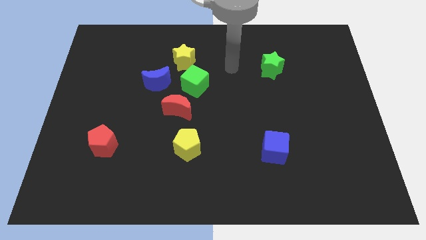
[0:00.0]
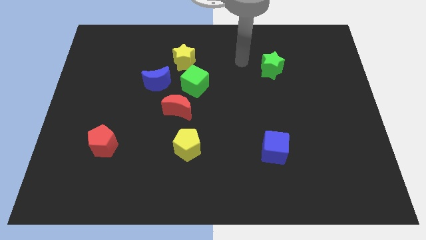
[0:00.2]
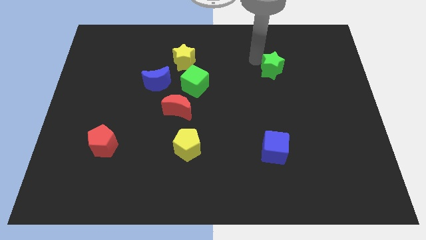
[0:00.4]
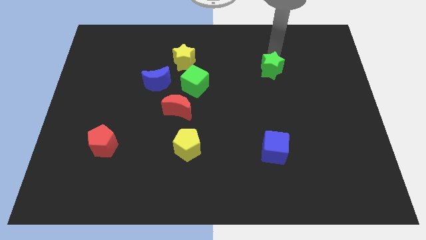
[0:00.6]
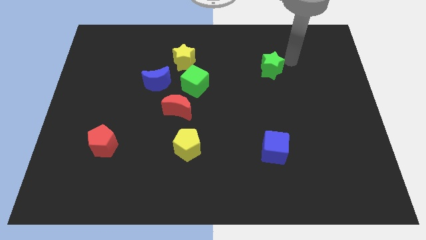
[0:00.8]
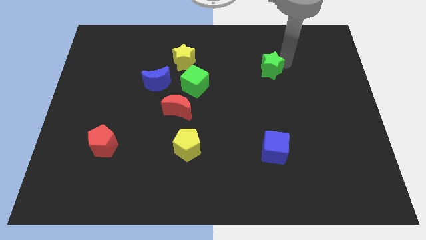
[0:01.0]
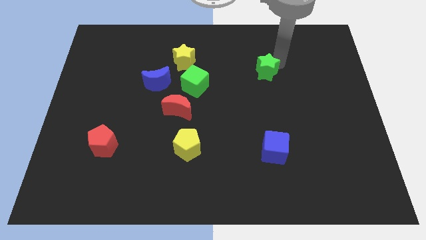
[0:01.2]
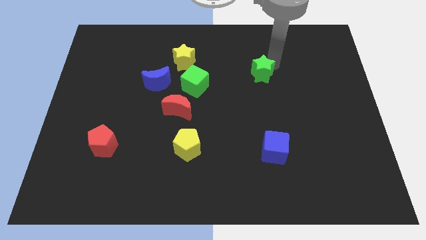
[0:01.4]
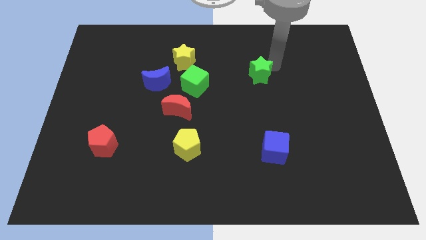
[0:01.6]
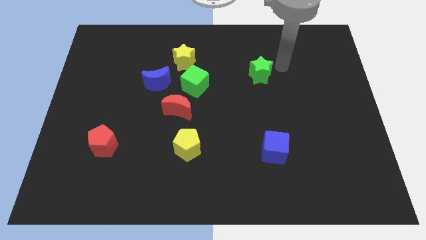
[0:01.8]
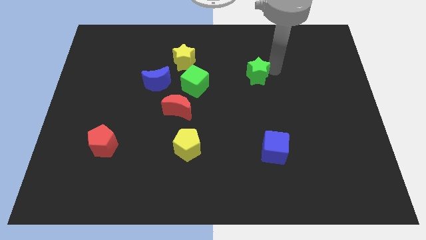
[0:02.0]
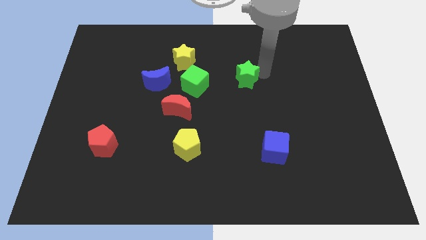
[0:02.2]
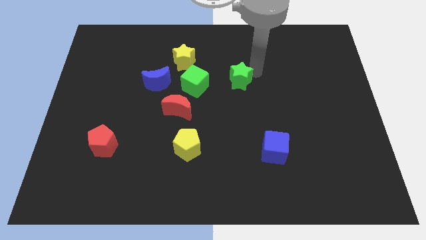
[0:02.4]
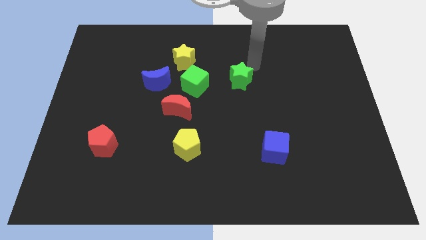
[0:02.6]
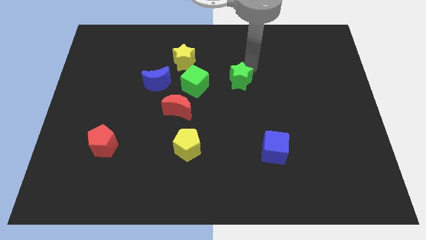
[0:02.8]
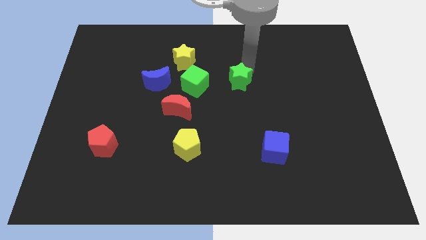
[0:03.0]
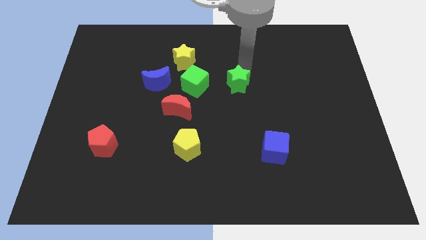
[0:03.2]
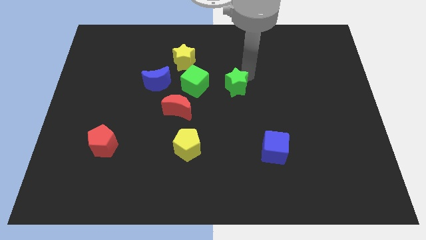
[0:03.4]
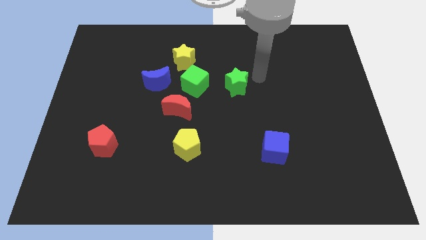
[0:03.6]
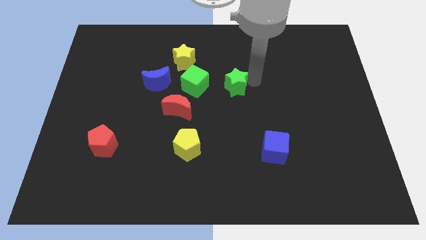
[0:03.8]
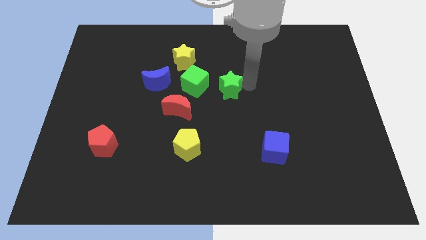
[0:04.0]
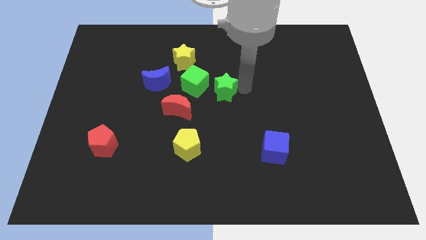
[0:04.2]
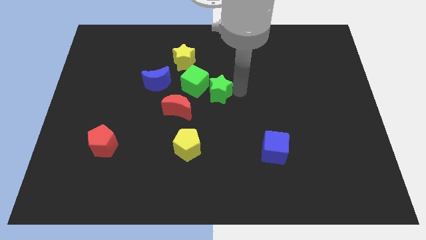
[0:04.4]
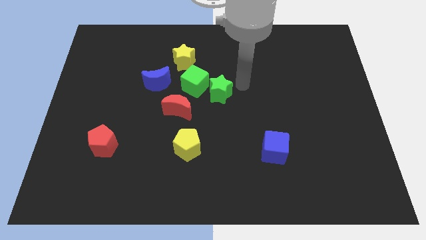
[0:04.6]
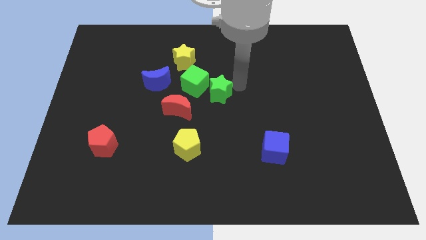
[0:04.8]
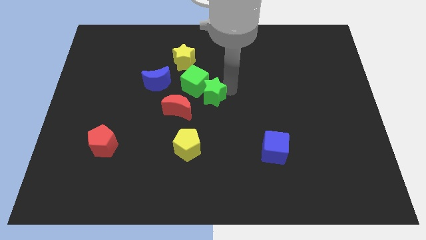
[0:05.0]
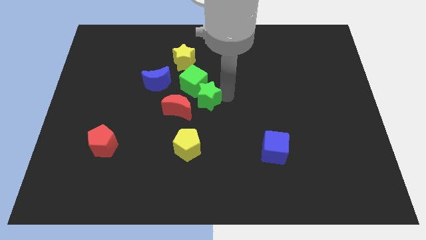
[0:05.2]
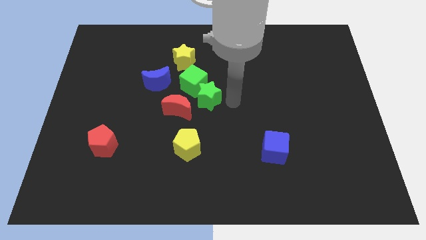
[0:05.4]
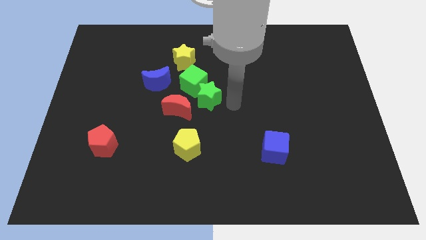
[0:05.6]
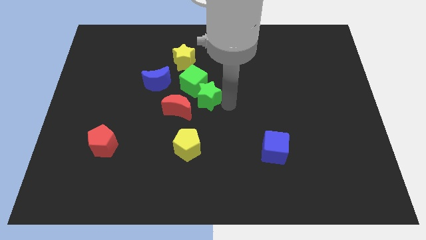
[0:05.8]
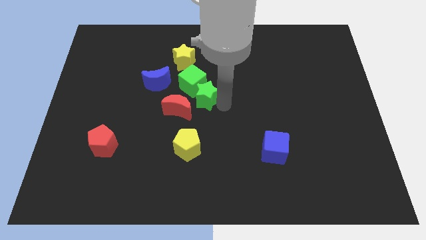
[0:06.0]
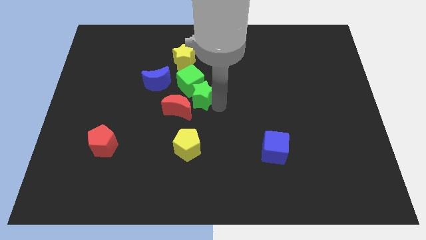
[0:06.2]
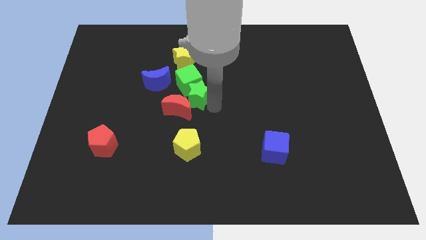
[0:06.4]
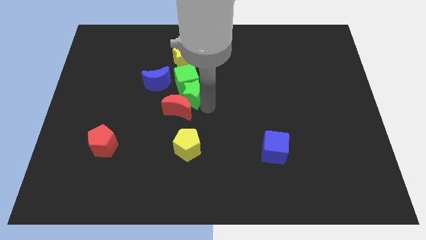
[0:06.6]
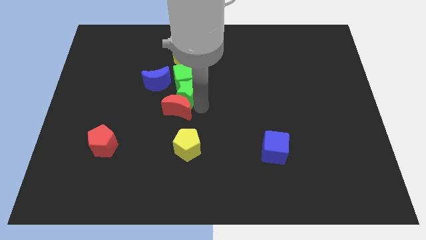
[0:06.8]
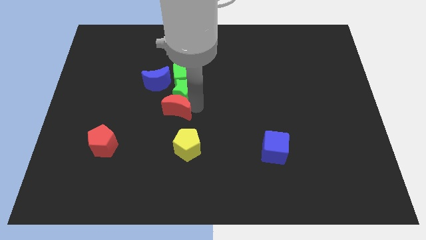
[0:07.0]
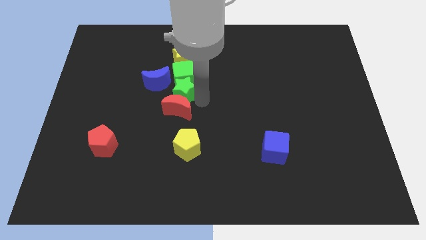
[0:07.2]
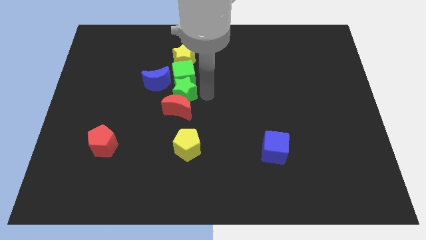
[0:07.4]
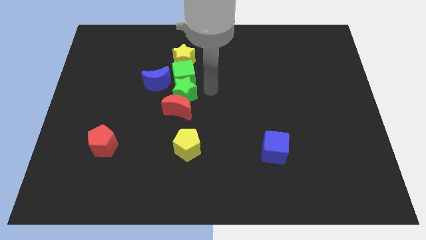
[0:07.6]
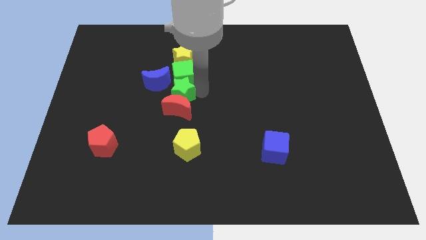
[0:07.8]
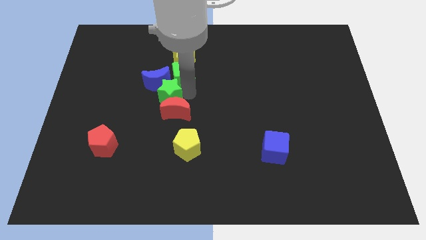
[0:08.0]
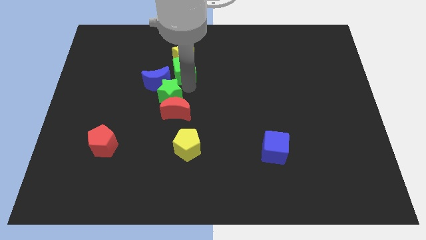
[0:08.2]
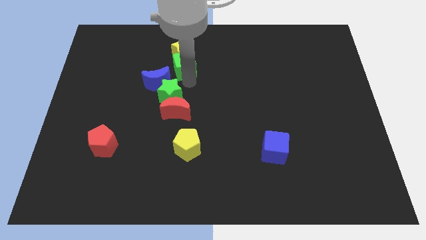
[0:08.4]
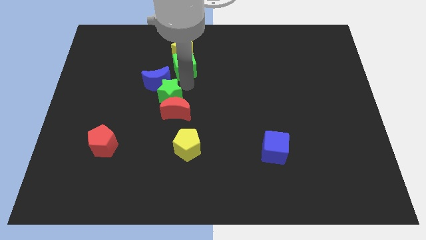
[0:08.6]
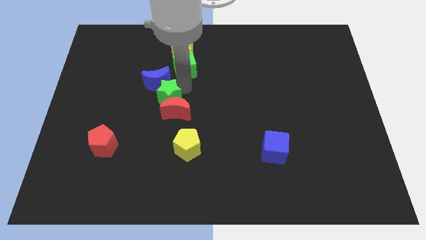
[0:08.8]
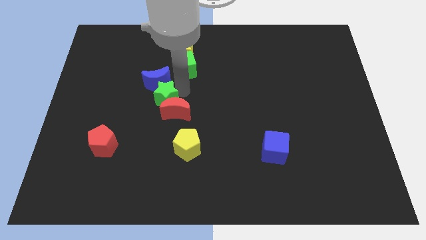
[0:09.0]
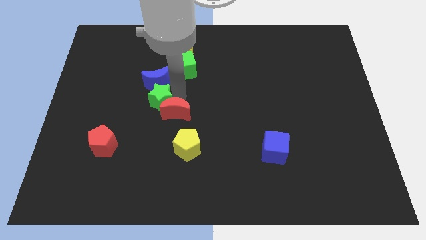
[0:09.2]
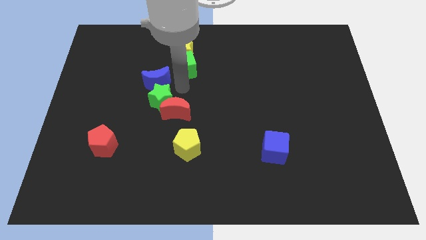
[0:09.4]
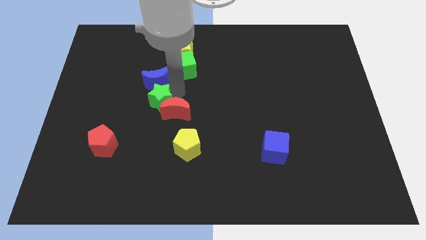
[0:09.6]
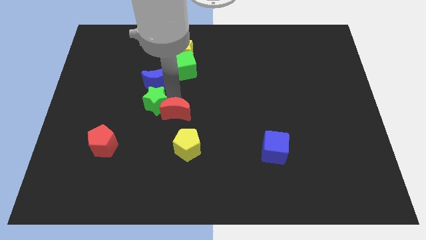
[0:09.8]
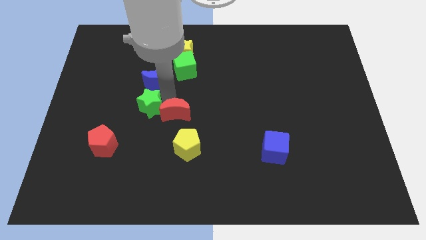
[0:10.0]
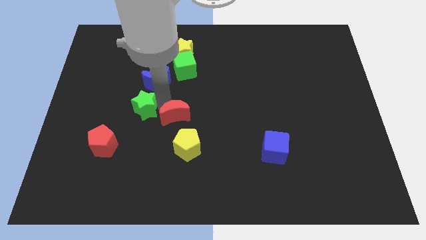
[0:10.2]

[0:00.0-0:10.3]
move the green star to the top right of the red pentagon
